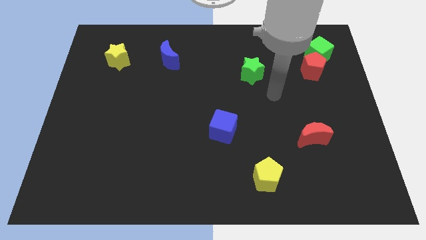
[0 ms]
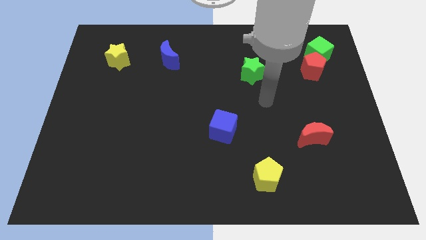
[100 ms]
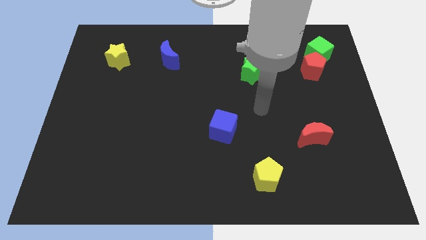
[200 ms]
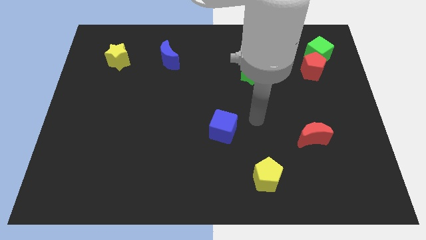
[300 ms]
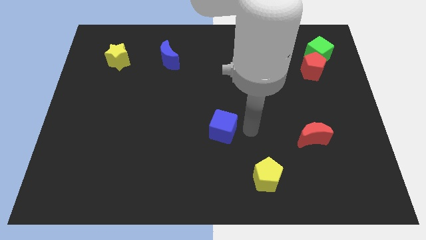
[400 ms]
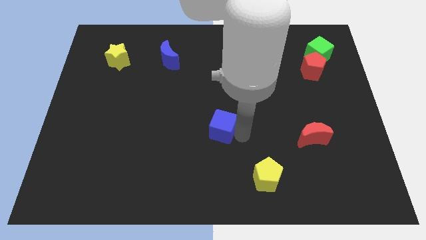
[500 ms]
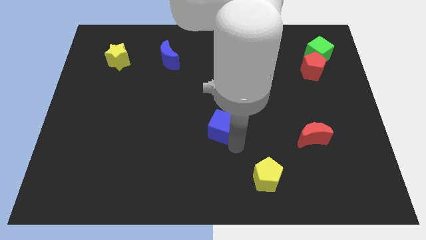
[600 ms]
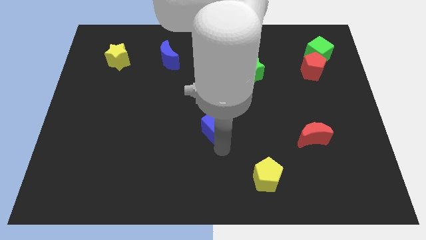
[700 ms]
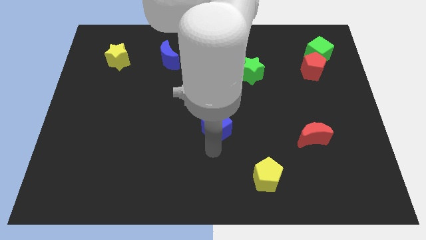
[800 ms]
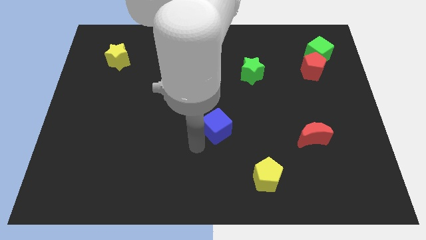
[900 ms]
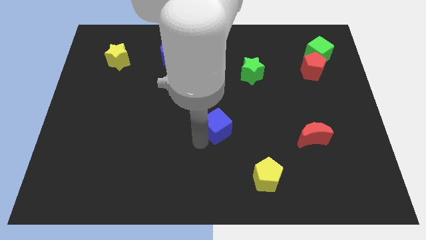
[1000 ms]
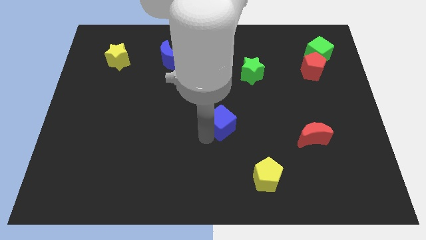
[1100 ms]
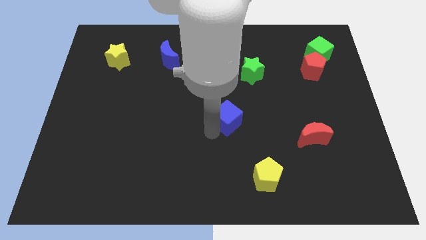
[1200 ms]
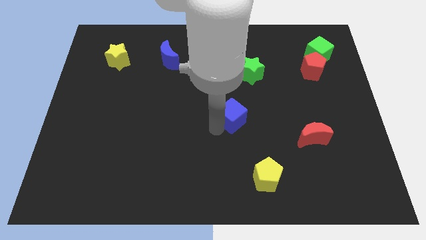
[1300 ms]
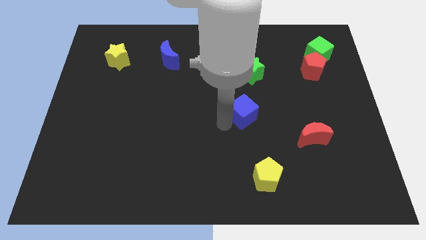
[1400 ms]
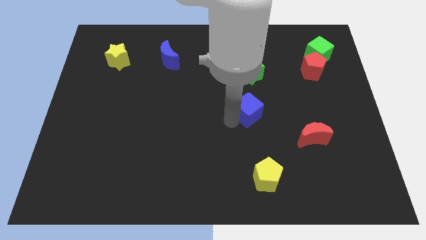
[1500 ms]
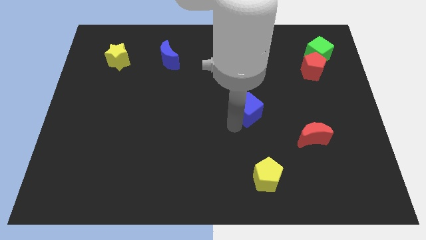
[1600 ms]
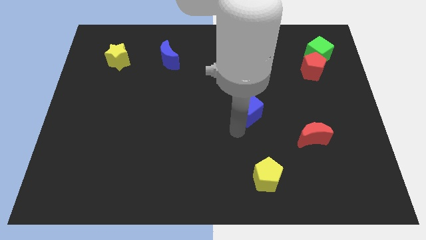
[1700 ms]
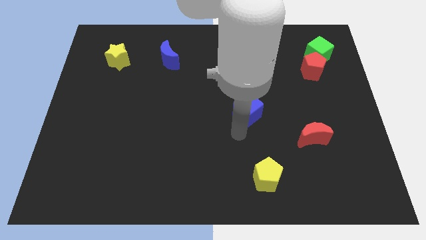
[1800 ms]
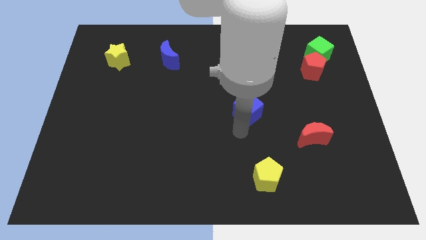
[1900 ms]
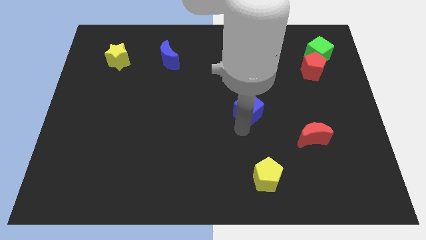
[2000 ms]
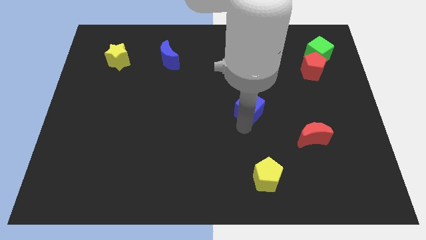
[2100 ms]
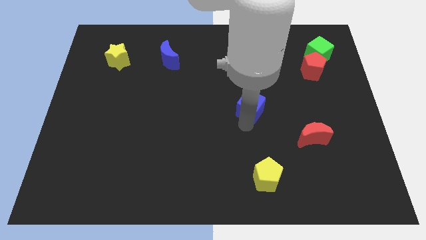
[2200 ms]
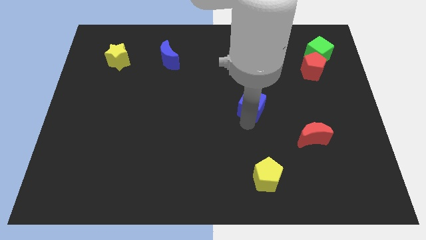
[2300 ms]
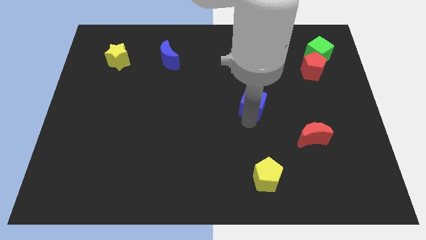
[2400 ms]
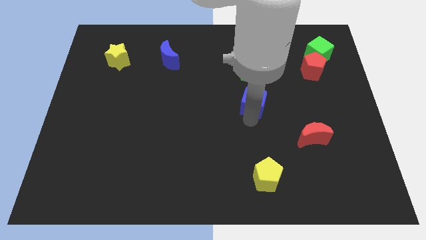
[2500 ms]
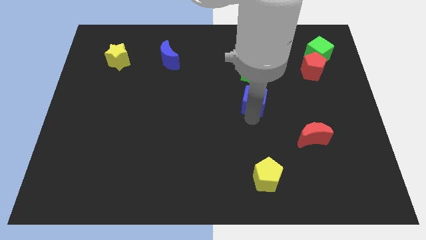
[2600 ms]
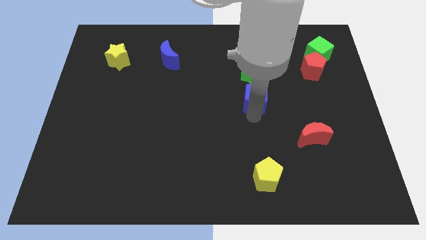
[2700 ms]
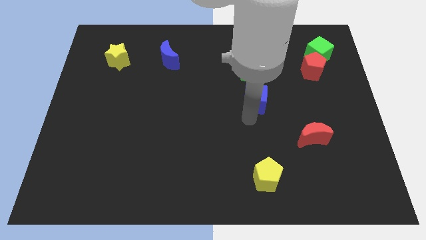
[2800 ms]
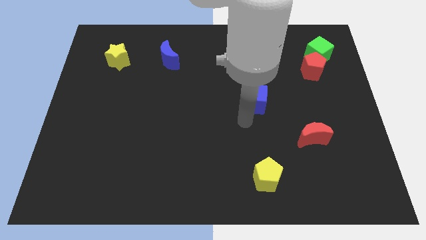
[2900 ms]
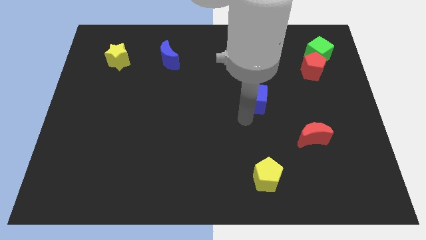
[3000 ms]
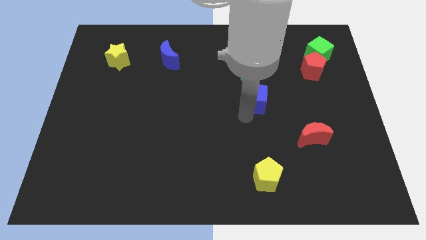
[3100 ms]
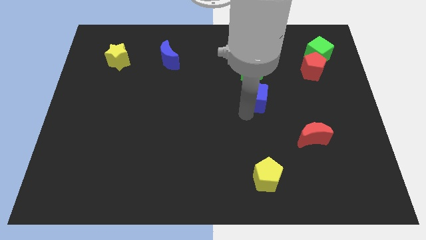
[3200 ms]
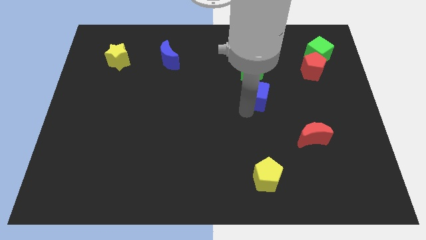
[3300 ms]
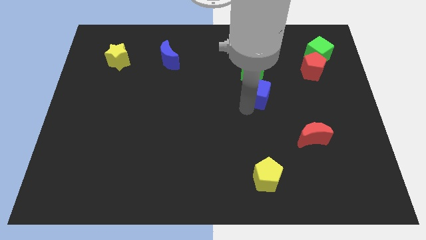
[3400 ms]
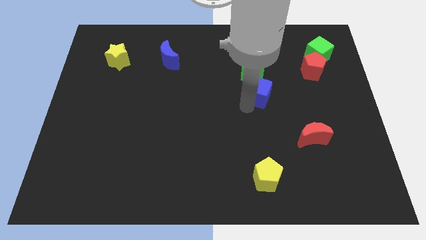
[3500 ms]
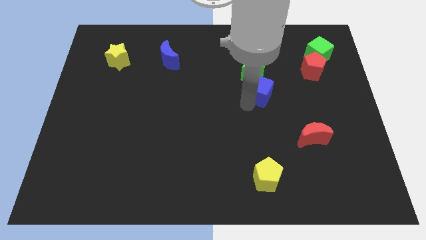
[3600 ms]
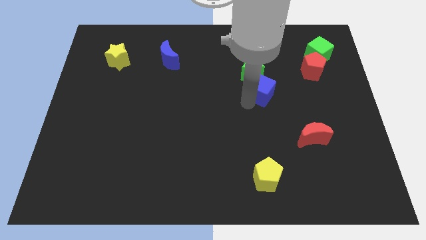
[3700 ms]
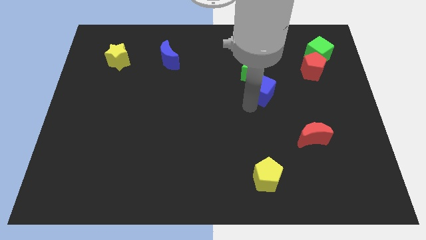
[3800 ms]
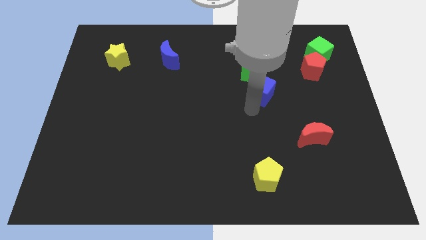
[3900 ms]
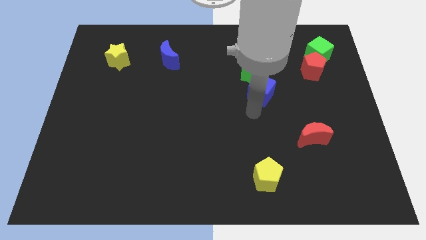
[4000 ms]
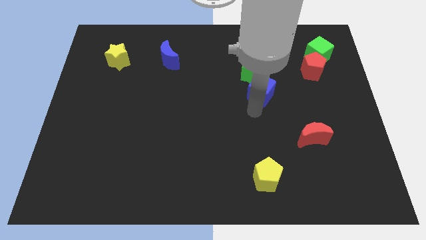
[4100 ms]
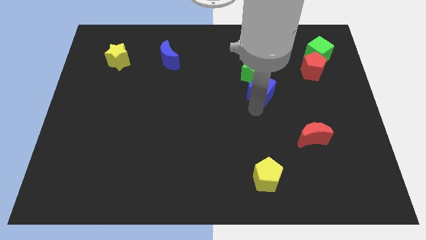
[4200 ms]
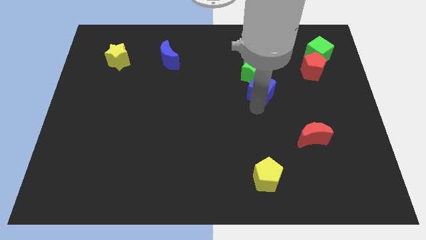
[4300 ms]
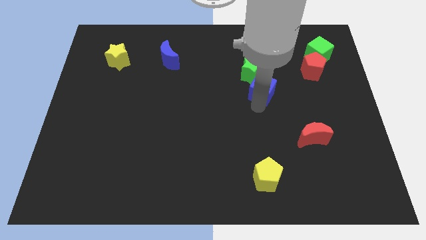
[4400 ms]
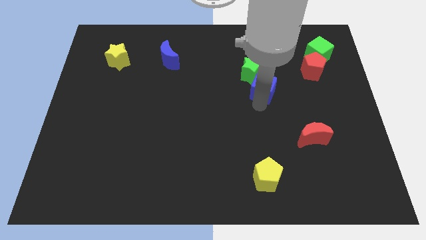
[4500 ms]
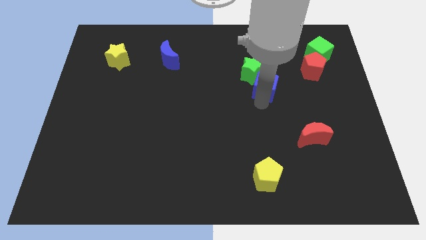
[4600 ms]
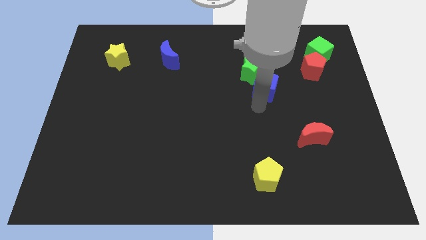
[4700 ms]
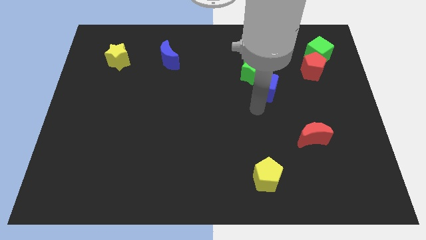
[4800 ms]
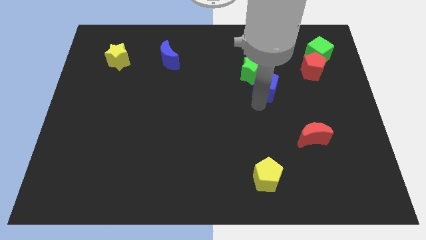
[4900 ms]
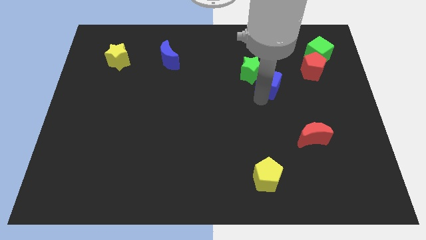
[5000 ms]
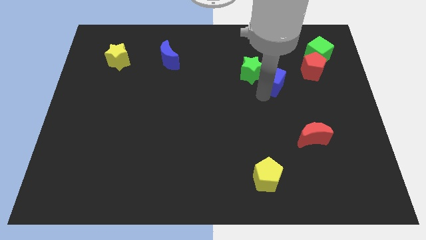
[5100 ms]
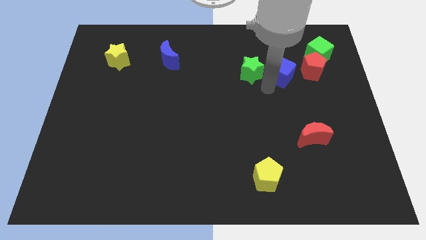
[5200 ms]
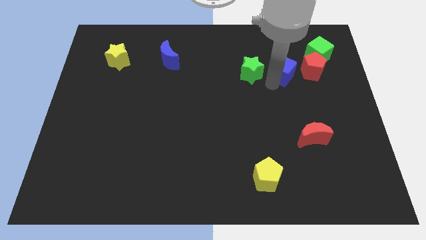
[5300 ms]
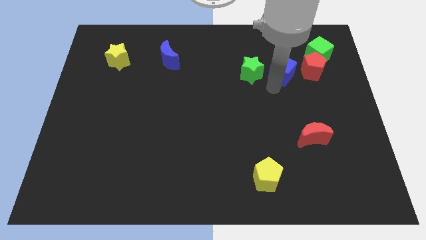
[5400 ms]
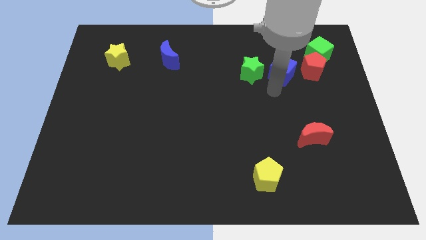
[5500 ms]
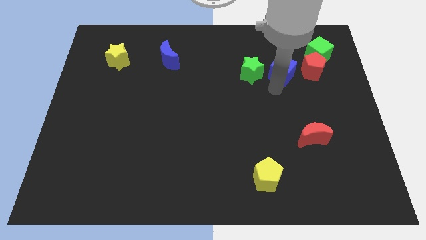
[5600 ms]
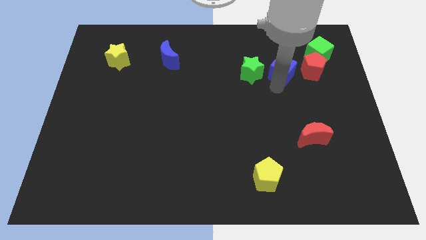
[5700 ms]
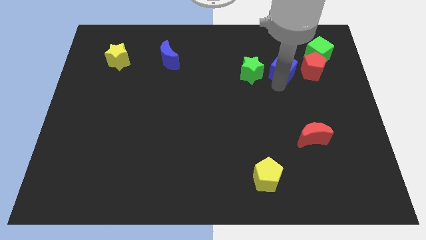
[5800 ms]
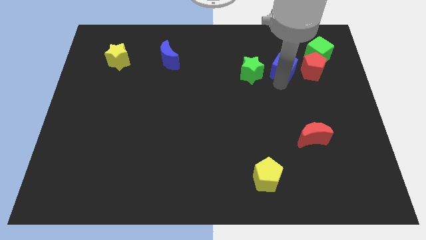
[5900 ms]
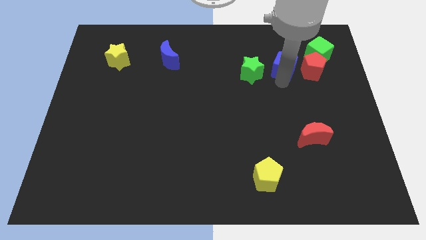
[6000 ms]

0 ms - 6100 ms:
move the blue cube to the top left of the red pentagon
